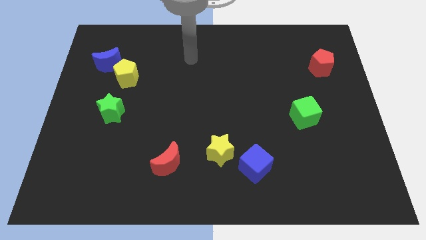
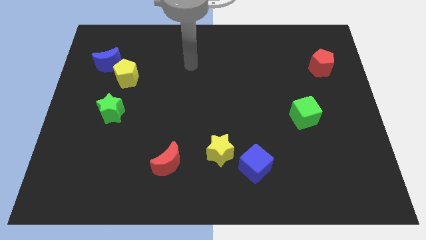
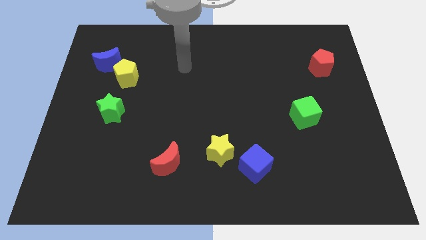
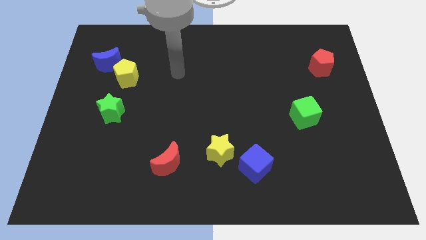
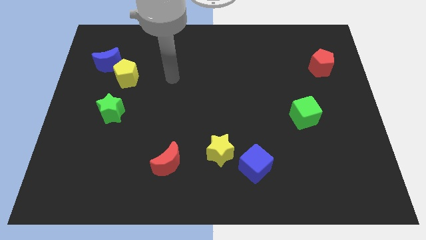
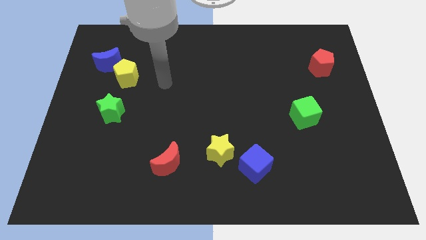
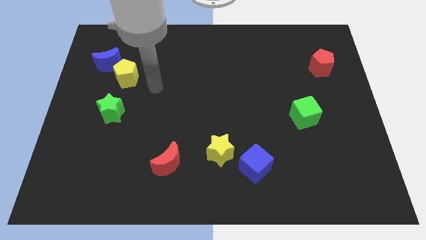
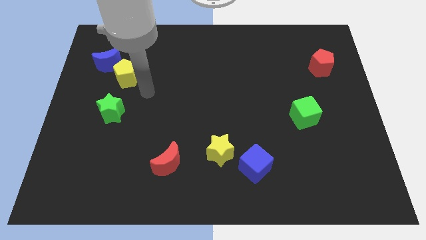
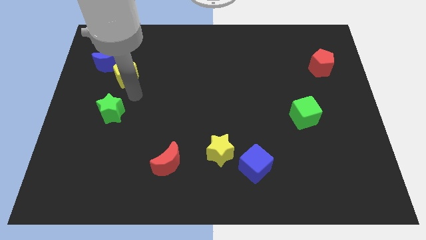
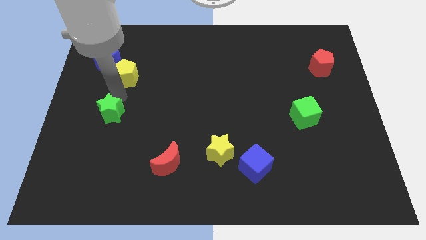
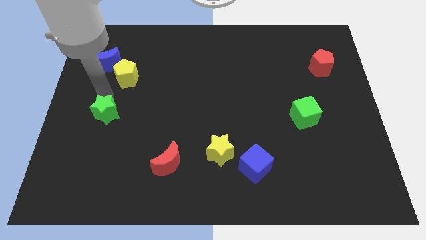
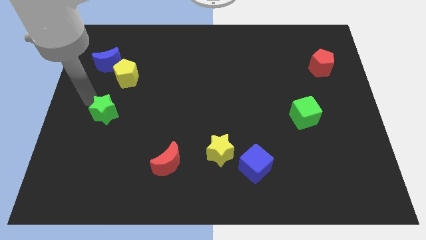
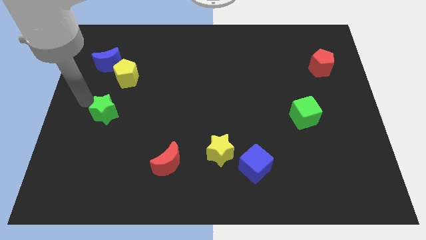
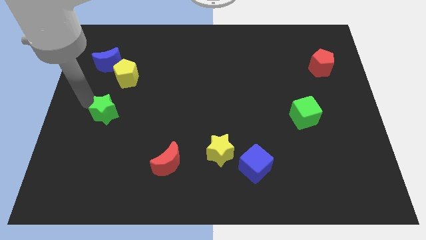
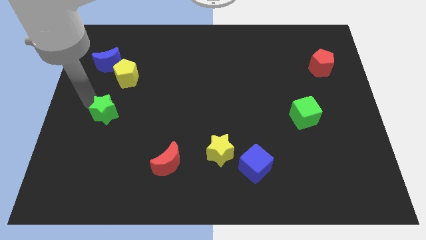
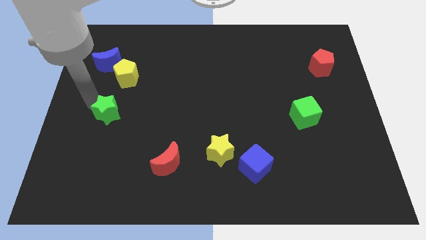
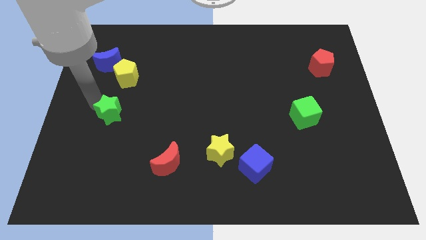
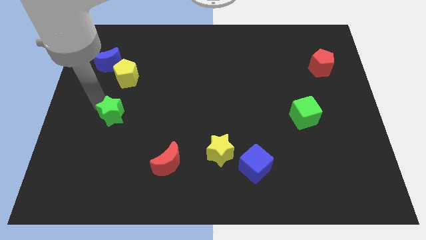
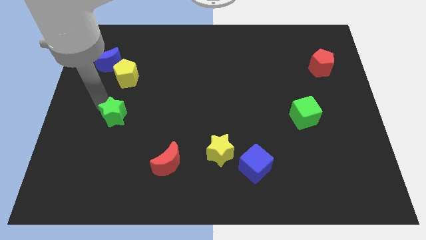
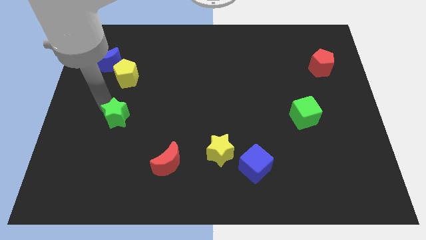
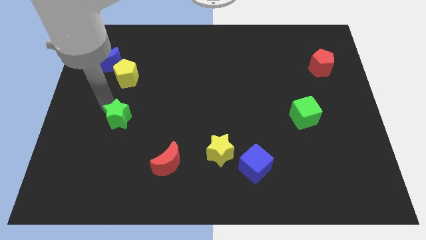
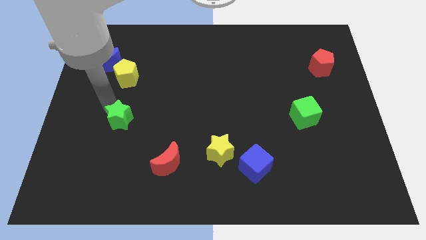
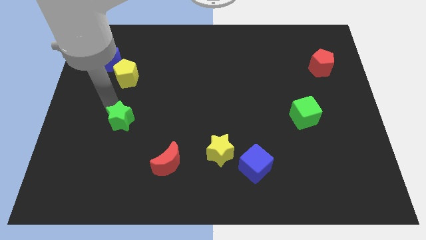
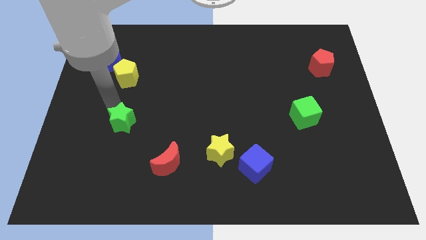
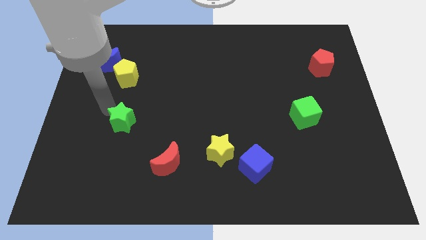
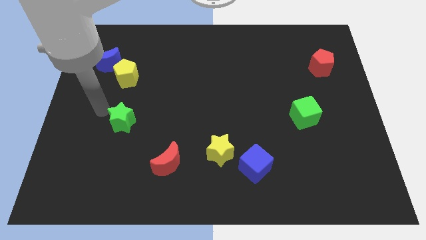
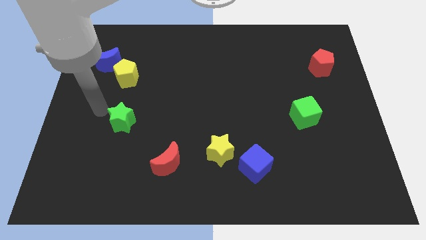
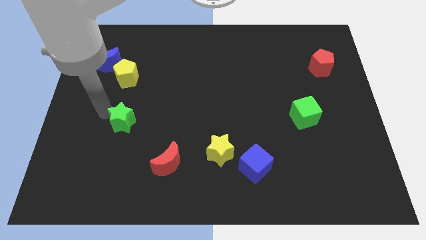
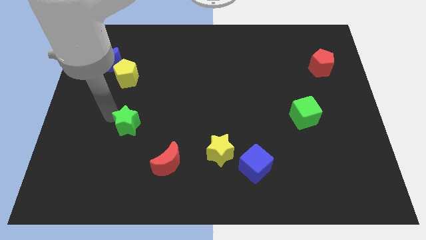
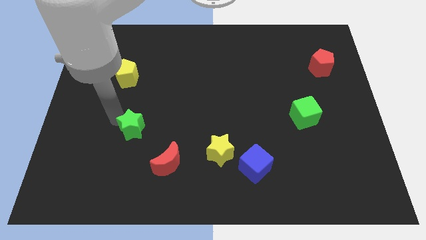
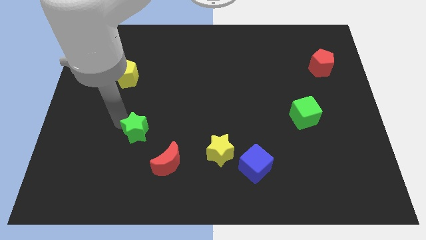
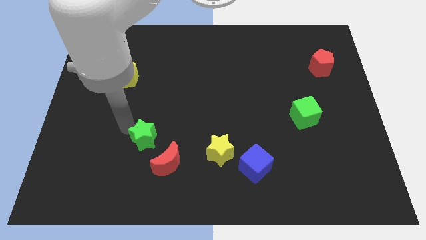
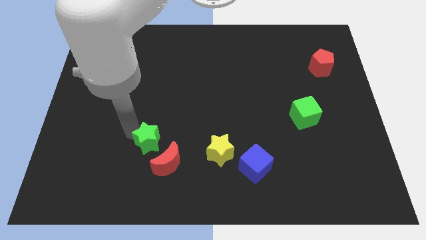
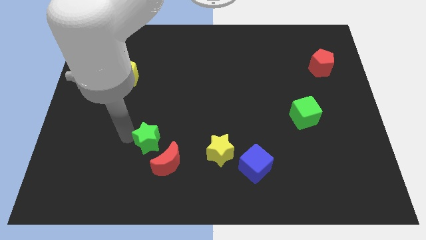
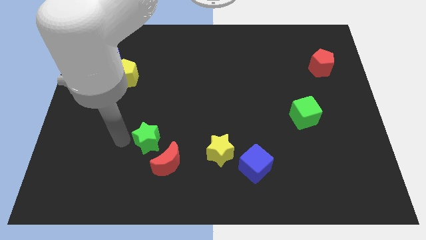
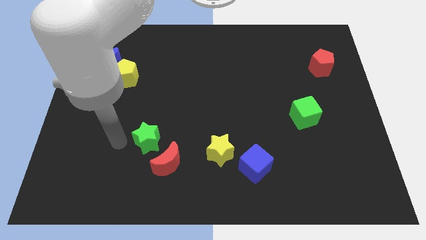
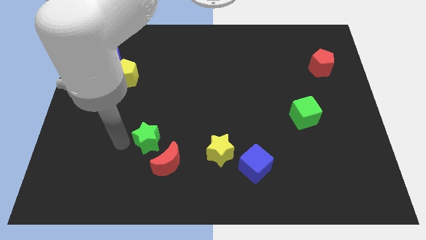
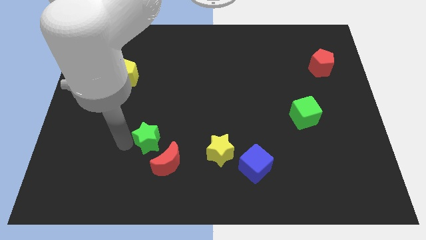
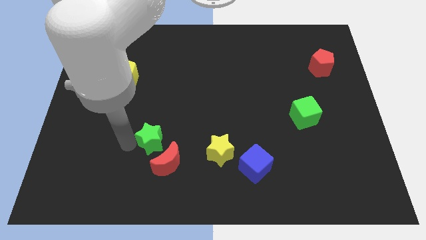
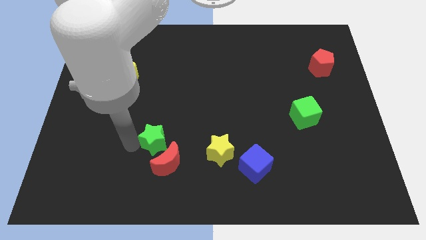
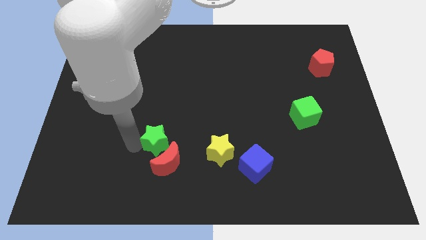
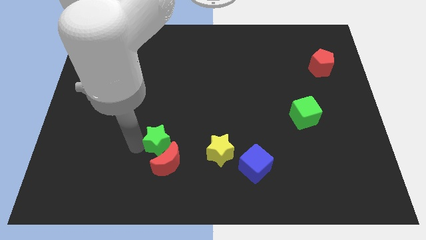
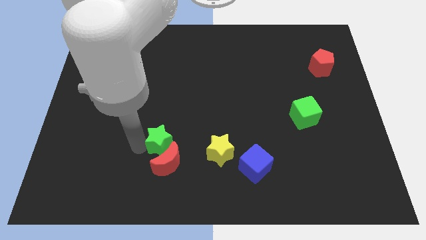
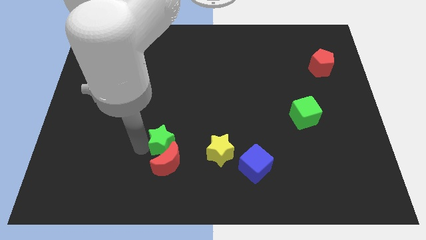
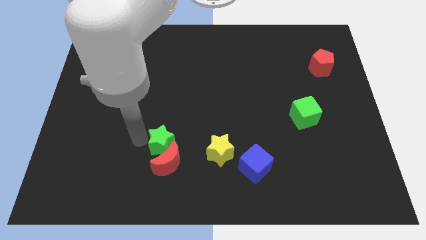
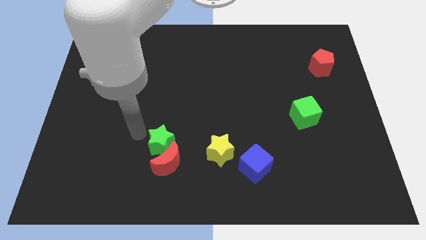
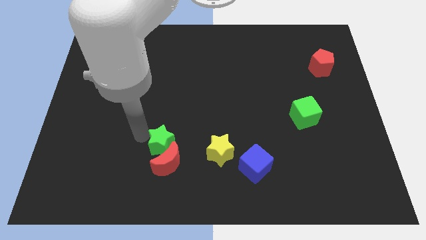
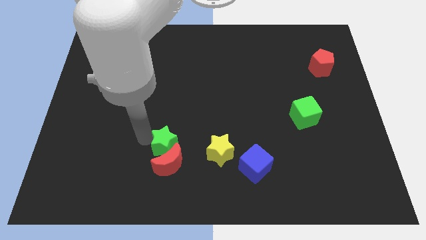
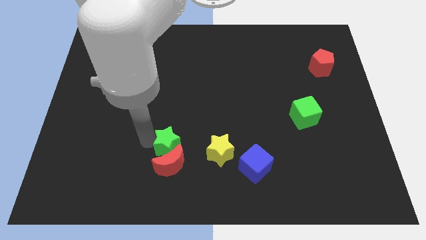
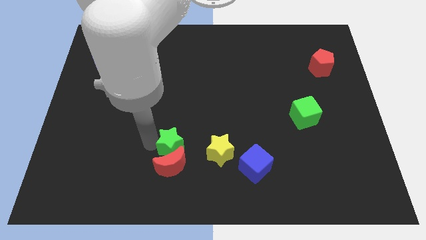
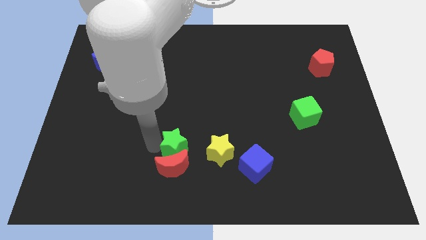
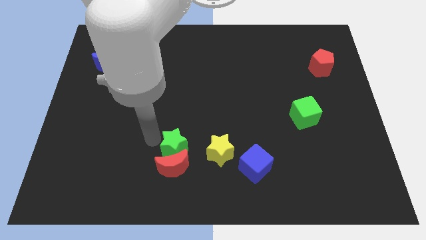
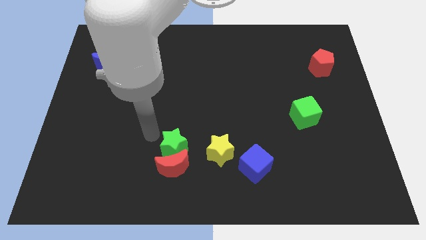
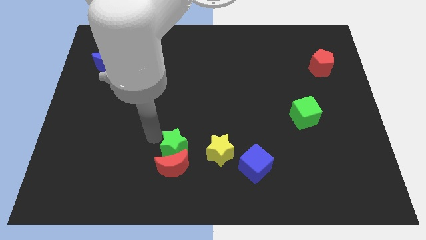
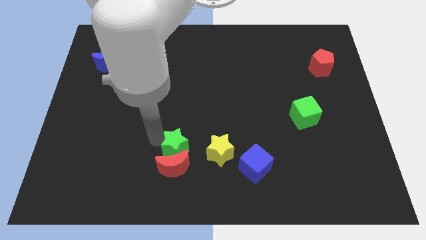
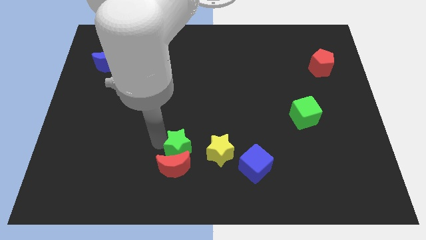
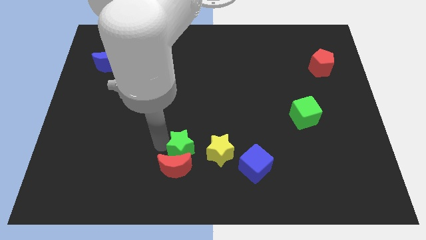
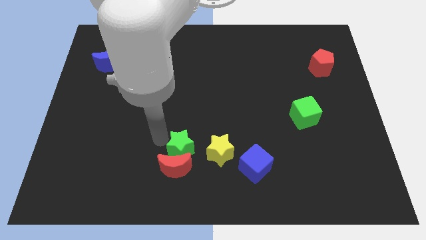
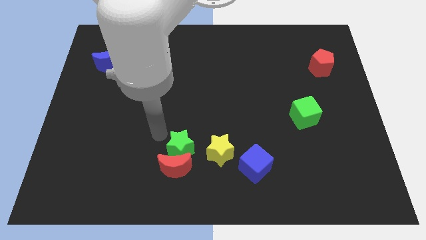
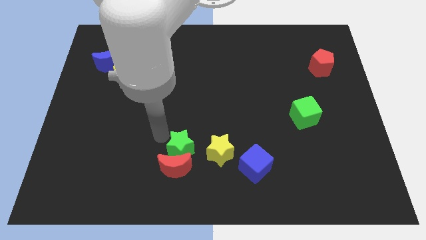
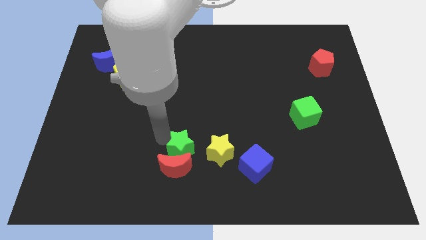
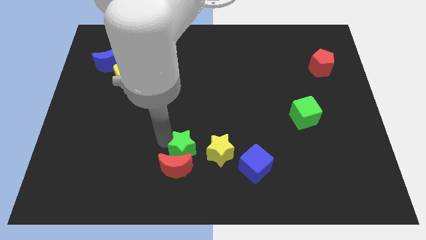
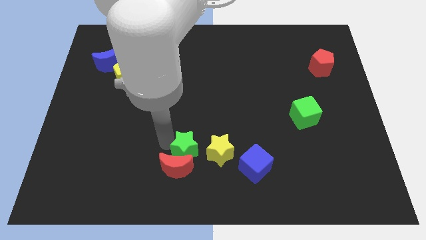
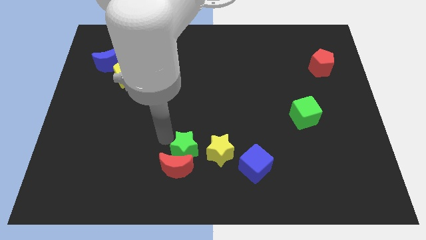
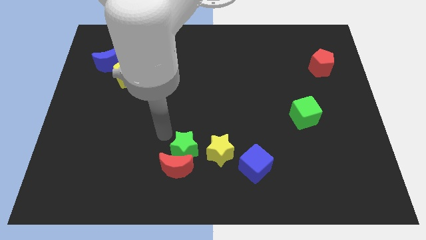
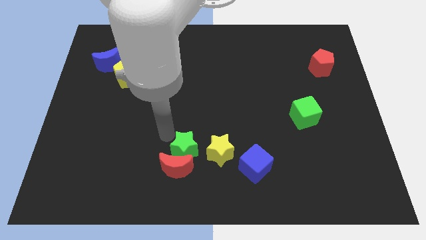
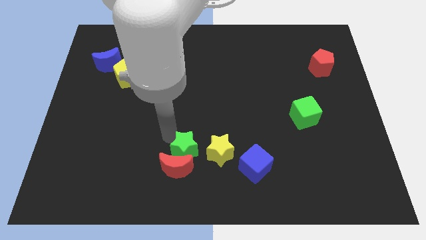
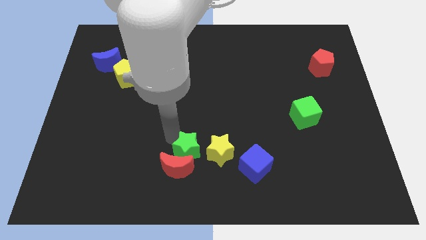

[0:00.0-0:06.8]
slide the green star to the left of the blue cube

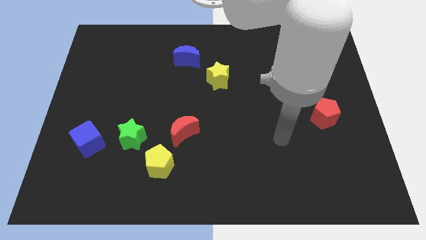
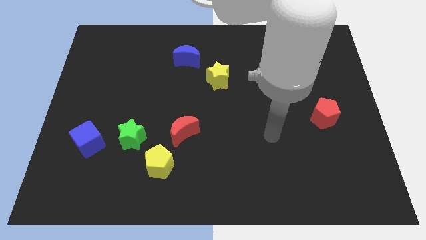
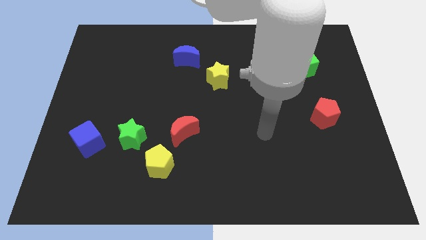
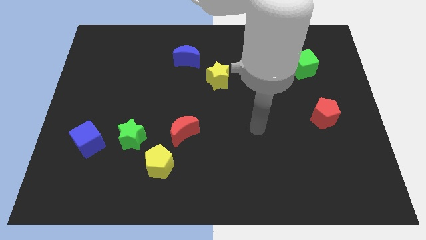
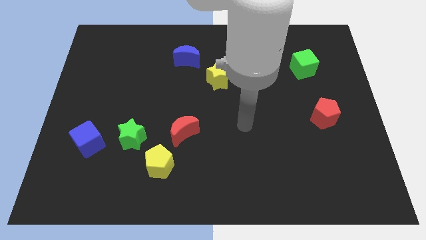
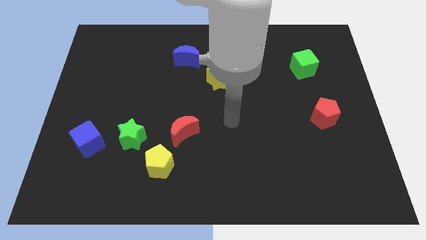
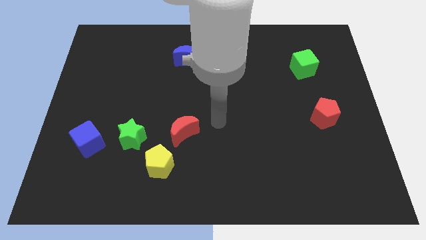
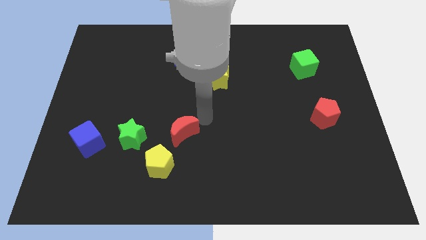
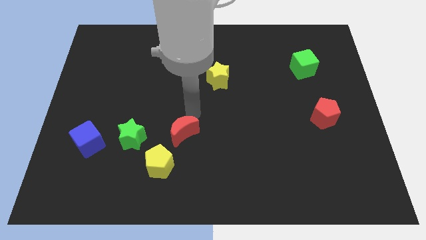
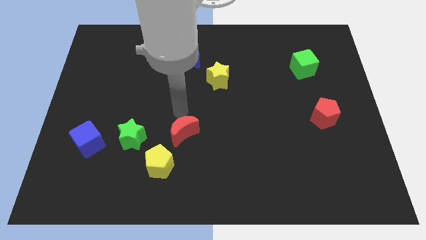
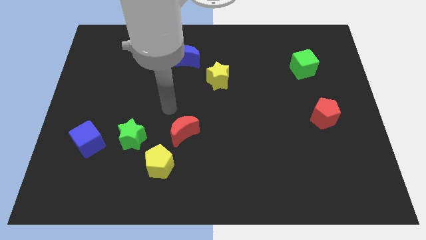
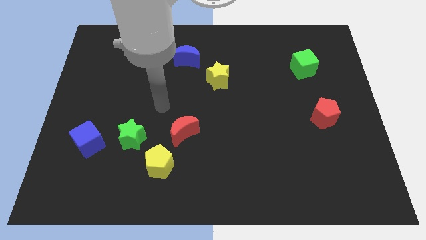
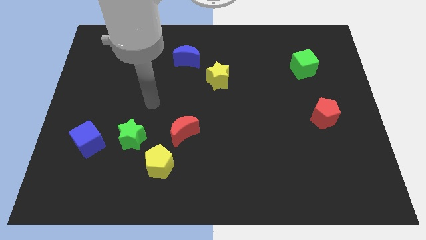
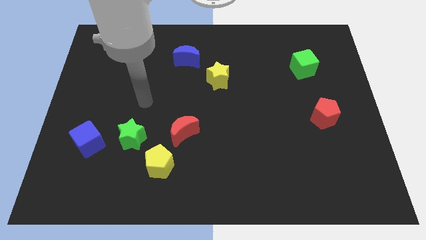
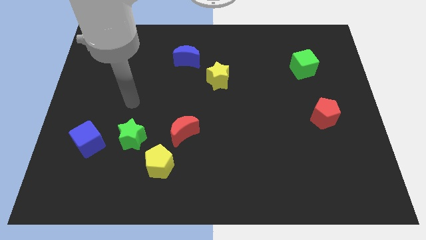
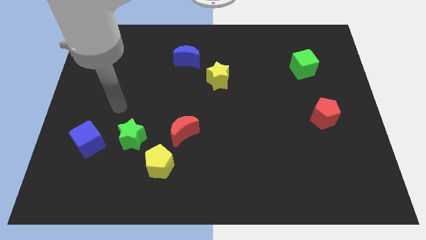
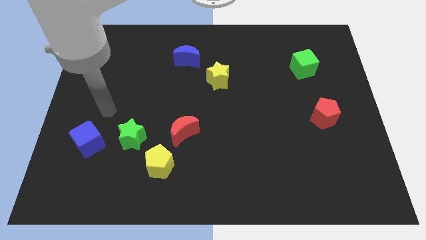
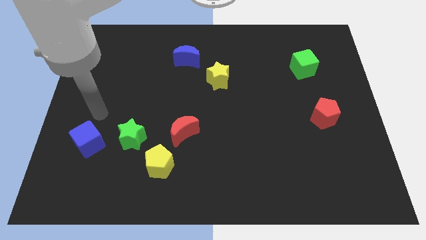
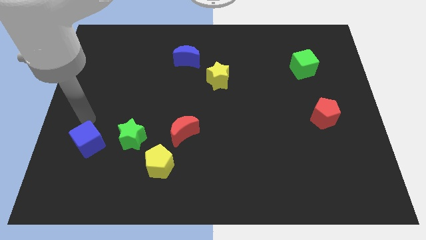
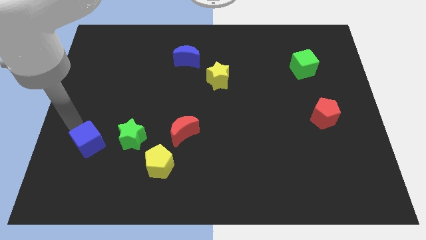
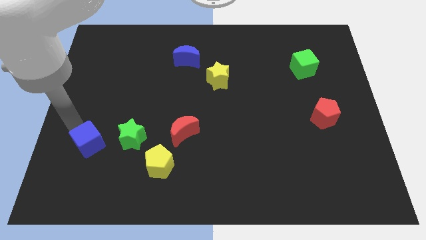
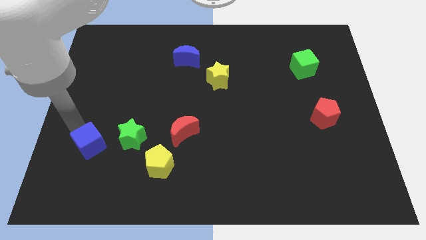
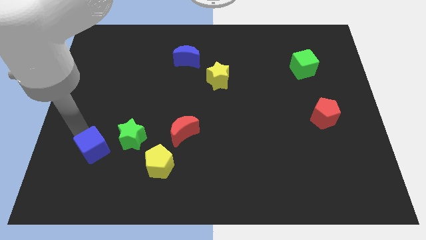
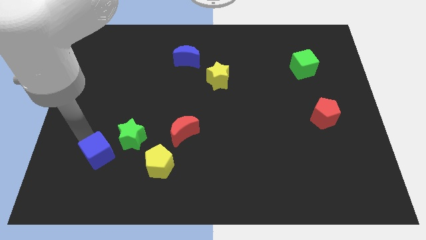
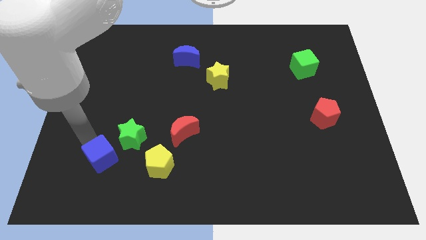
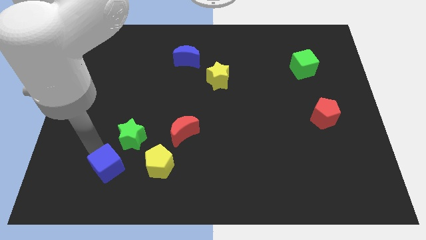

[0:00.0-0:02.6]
put the blue cube below the green star
